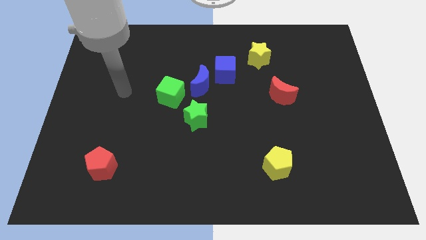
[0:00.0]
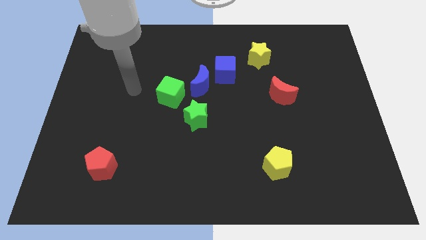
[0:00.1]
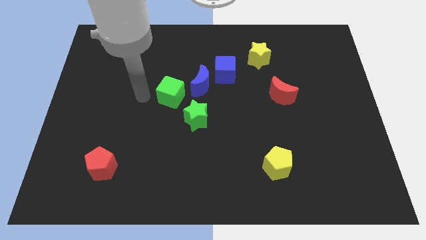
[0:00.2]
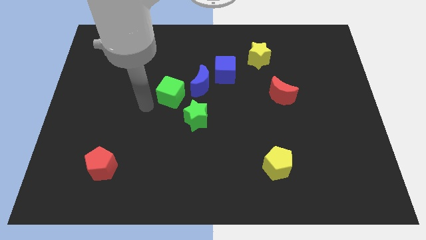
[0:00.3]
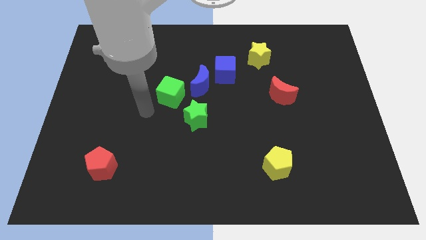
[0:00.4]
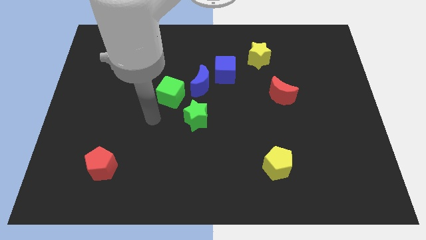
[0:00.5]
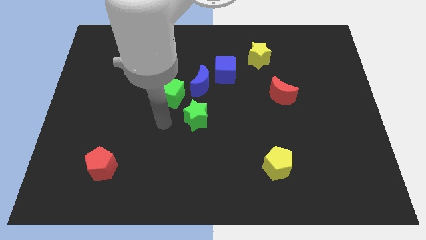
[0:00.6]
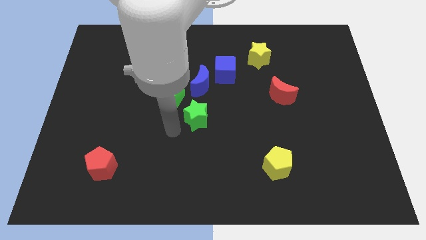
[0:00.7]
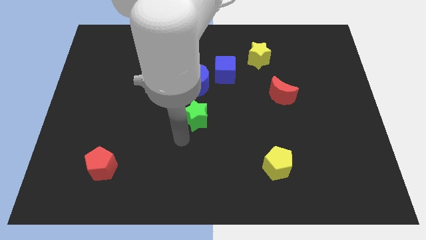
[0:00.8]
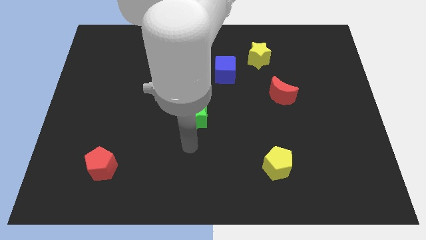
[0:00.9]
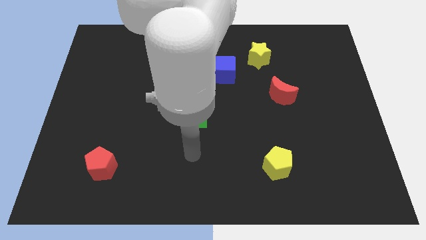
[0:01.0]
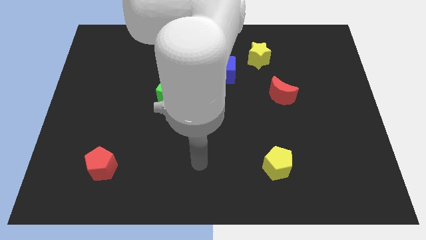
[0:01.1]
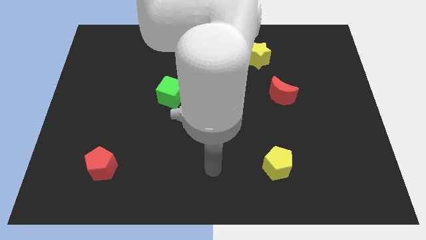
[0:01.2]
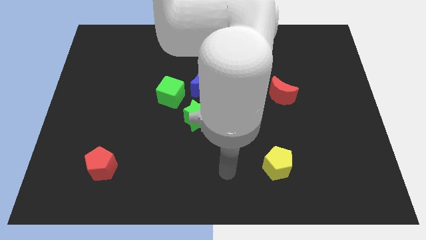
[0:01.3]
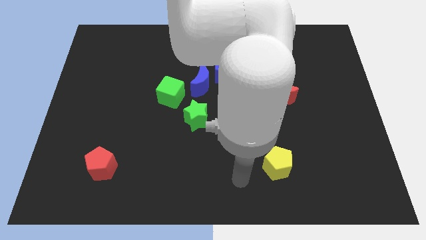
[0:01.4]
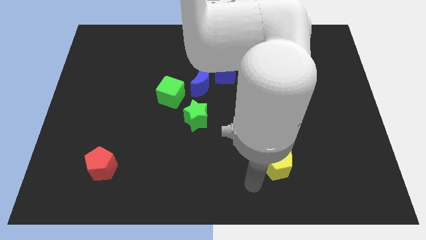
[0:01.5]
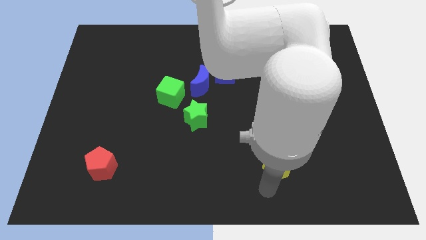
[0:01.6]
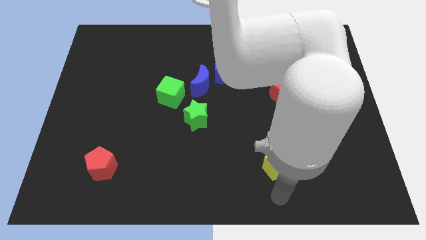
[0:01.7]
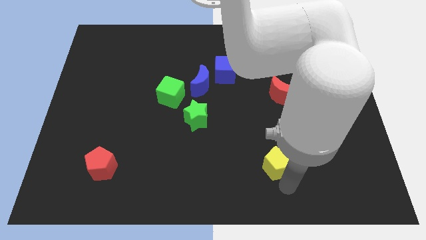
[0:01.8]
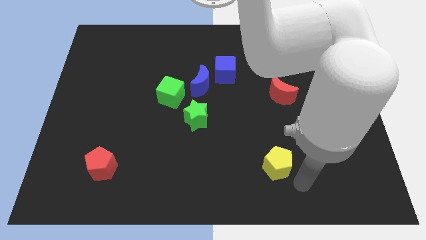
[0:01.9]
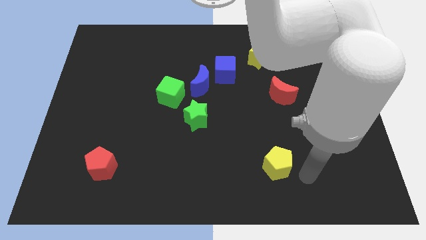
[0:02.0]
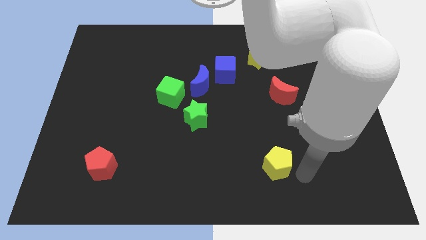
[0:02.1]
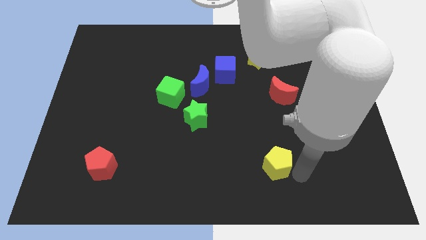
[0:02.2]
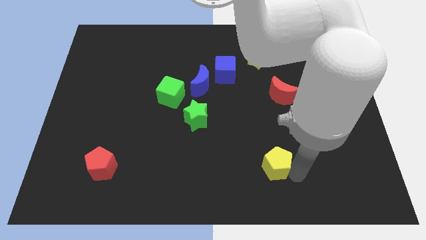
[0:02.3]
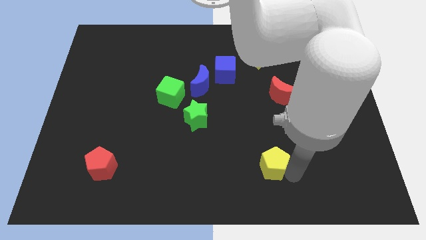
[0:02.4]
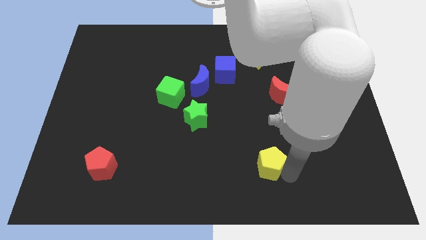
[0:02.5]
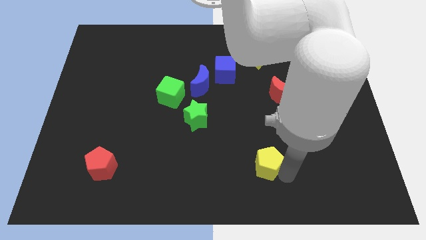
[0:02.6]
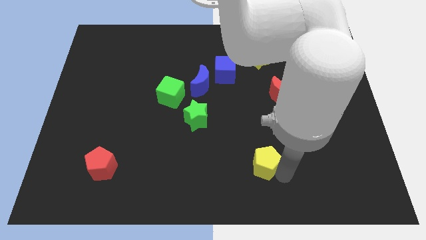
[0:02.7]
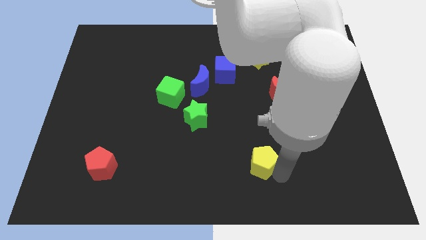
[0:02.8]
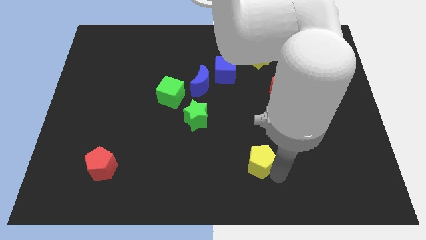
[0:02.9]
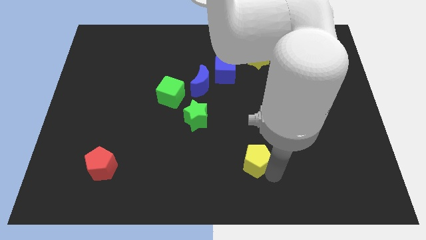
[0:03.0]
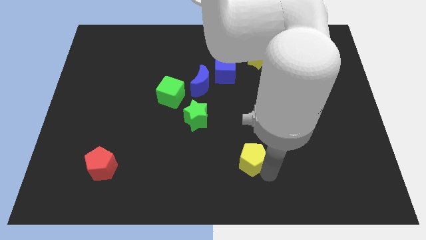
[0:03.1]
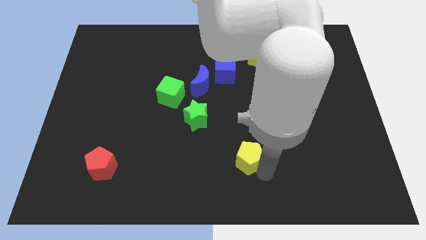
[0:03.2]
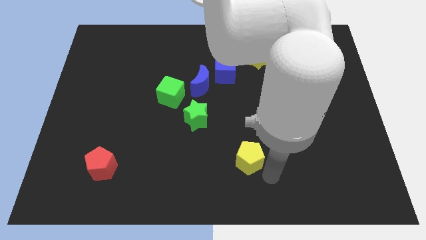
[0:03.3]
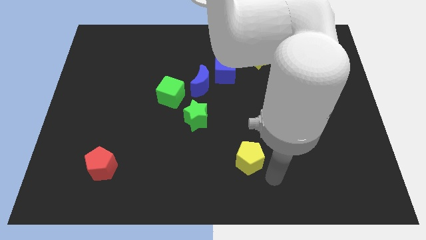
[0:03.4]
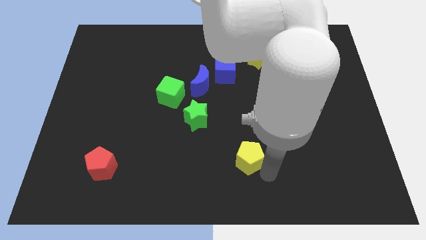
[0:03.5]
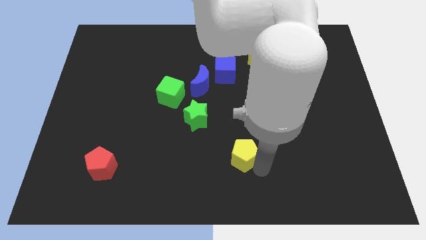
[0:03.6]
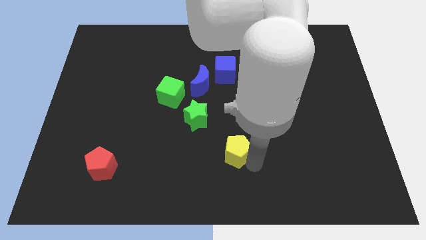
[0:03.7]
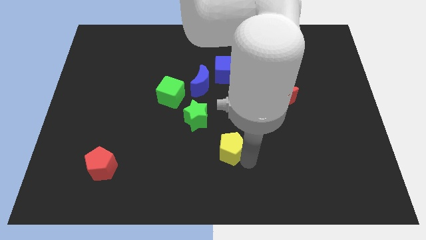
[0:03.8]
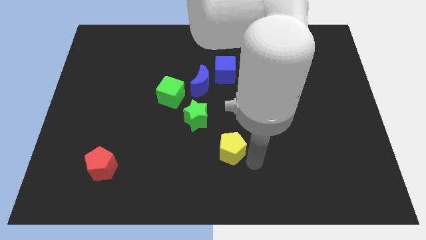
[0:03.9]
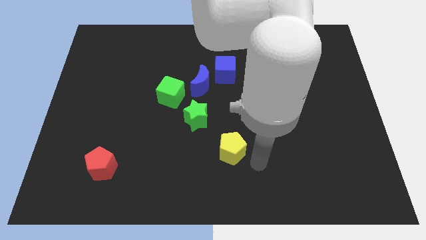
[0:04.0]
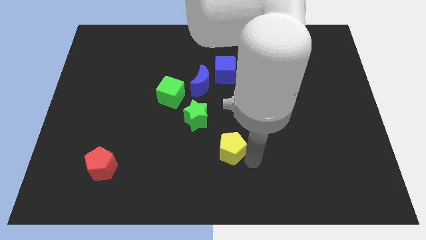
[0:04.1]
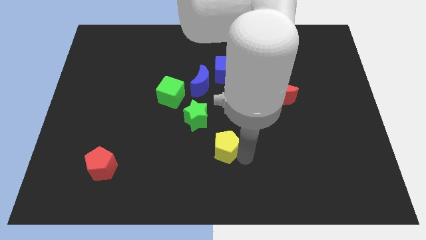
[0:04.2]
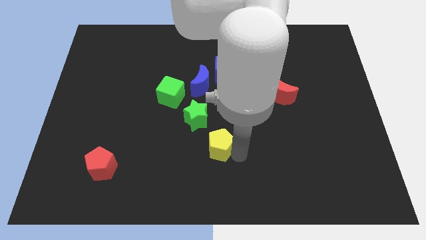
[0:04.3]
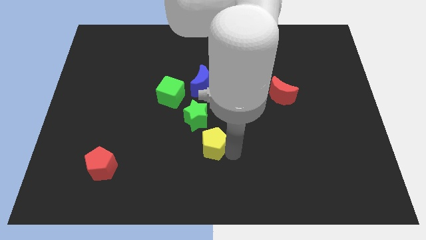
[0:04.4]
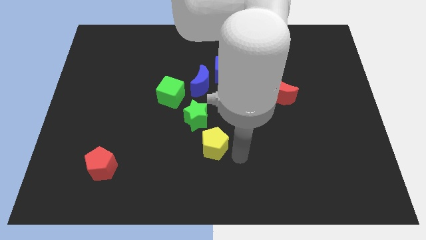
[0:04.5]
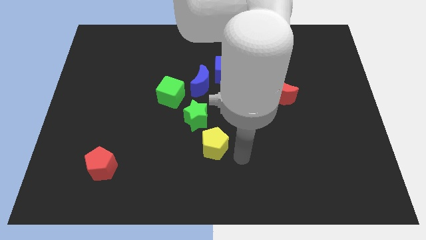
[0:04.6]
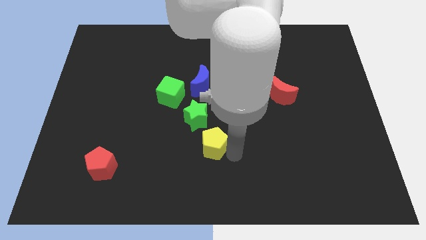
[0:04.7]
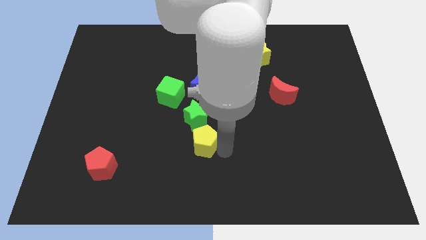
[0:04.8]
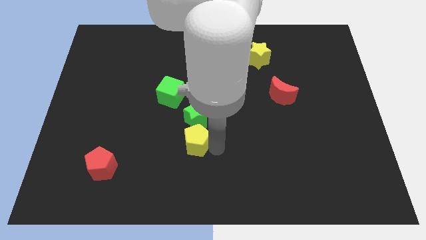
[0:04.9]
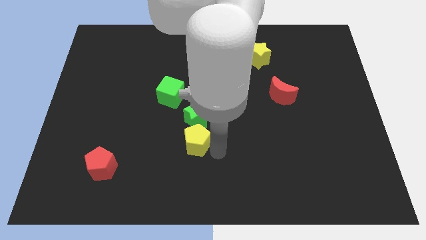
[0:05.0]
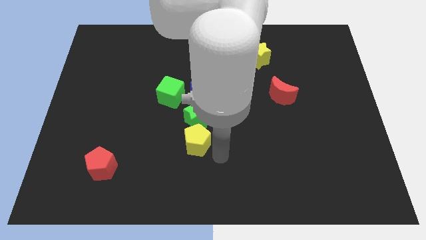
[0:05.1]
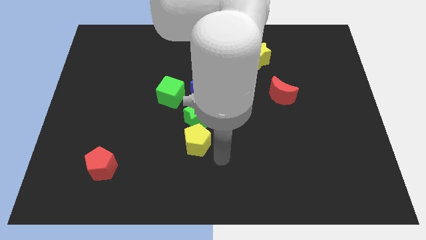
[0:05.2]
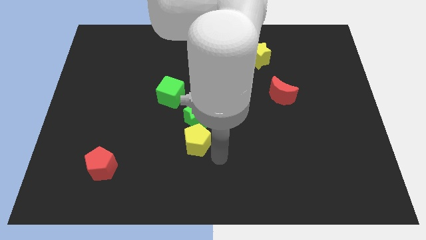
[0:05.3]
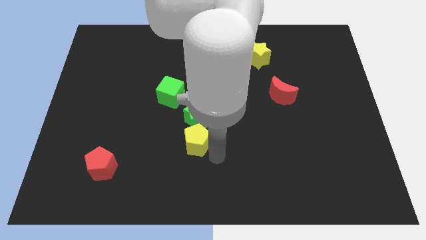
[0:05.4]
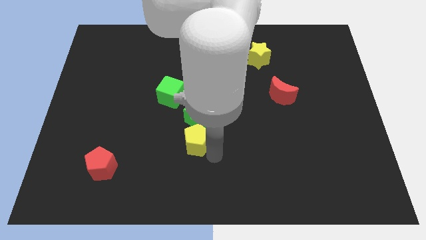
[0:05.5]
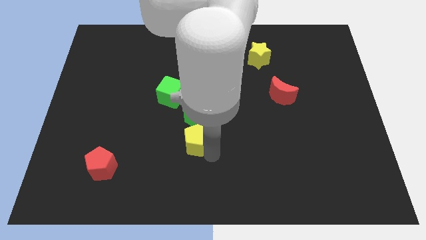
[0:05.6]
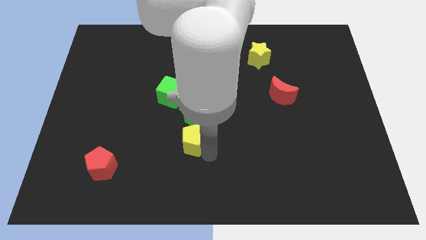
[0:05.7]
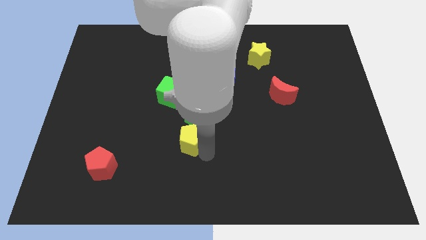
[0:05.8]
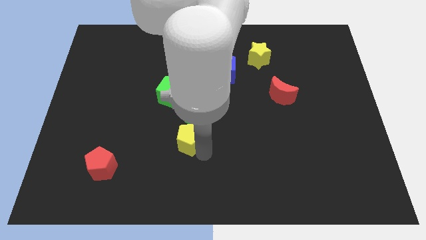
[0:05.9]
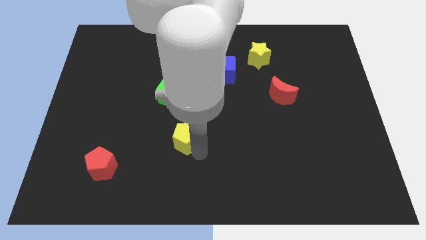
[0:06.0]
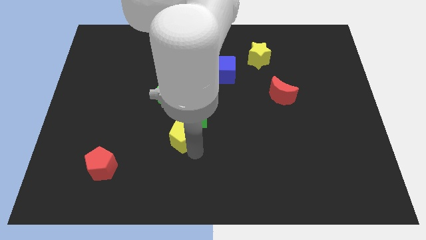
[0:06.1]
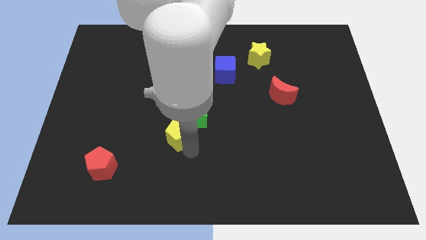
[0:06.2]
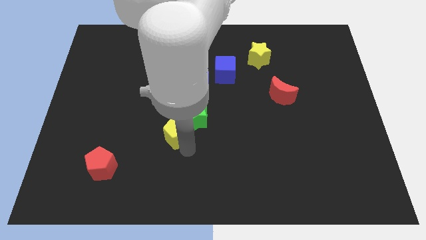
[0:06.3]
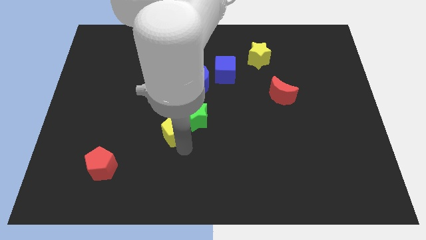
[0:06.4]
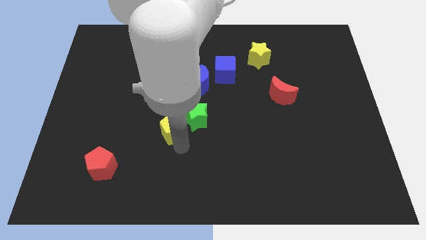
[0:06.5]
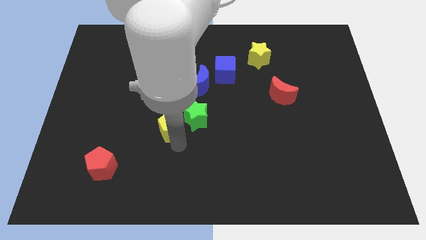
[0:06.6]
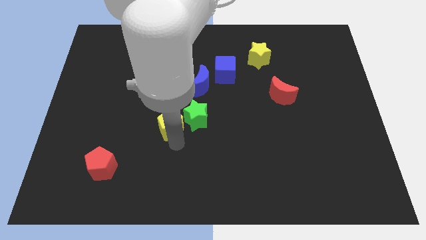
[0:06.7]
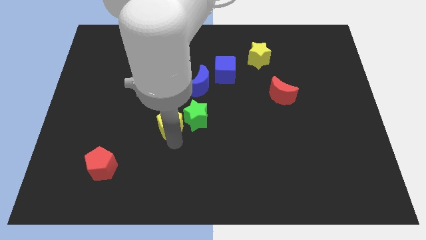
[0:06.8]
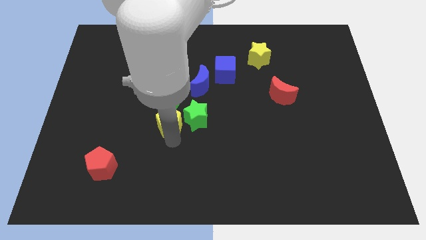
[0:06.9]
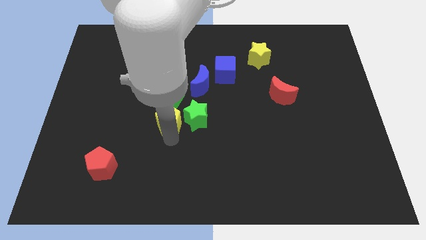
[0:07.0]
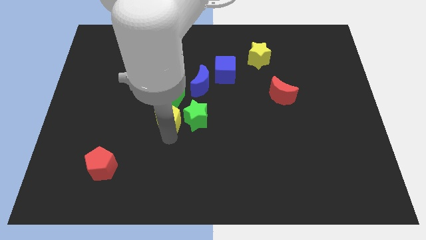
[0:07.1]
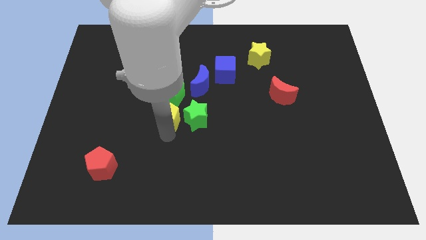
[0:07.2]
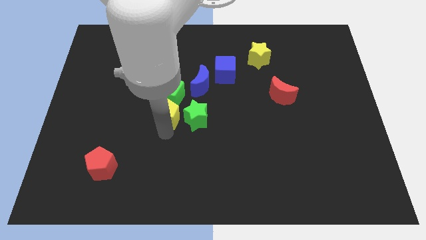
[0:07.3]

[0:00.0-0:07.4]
slide the yellow pentagon to the bottom left of the blue moon
